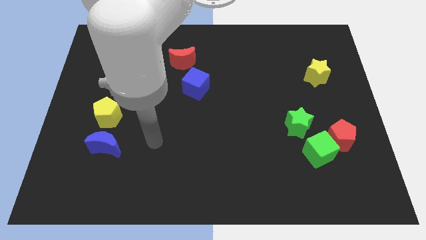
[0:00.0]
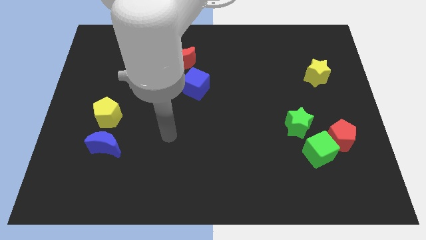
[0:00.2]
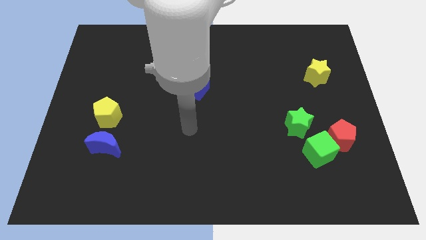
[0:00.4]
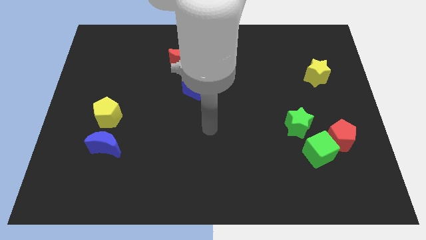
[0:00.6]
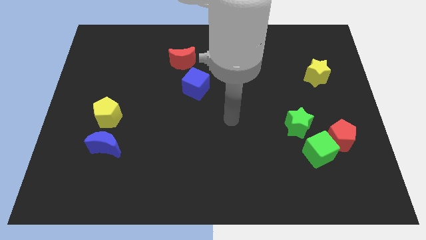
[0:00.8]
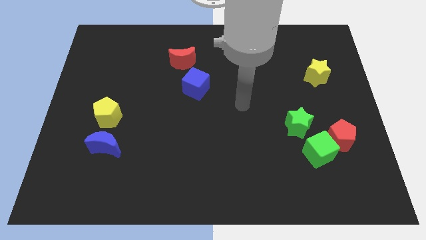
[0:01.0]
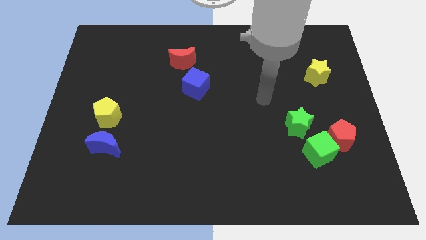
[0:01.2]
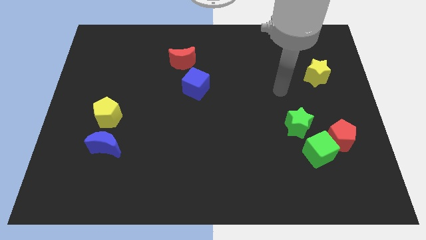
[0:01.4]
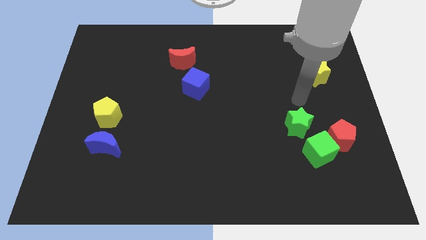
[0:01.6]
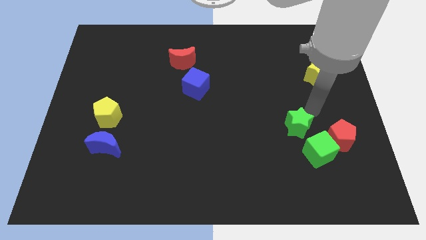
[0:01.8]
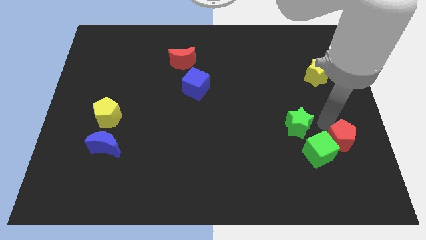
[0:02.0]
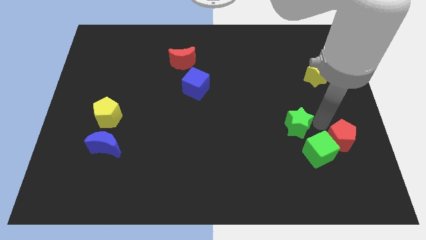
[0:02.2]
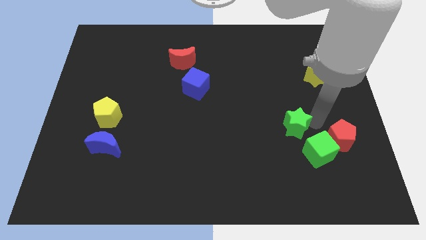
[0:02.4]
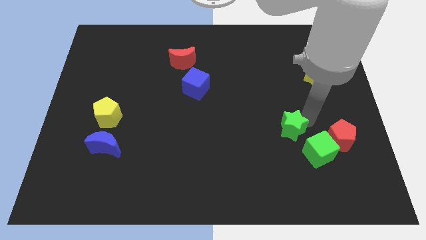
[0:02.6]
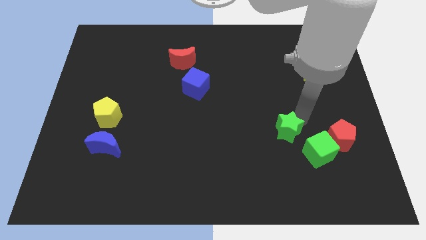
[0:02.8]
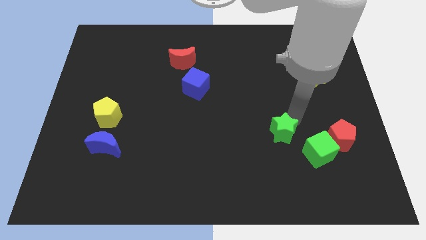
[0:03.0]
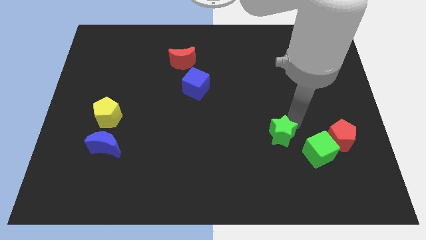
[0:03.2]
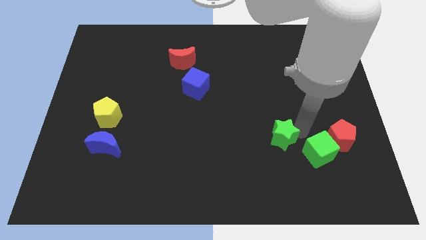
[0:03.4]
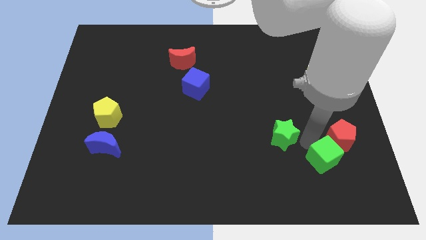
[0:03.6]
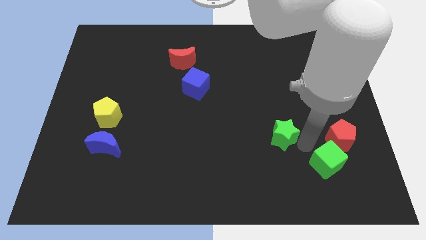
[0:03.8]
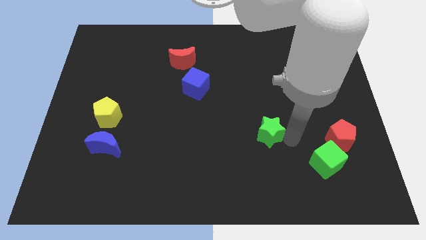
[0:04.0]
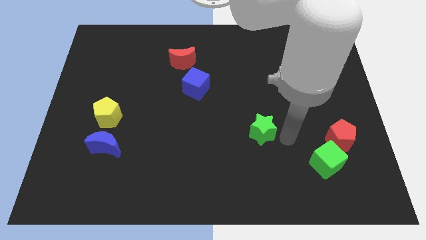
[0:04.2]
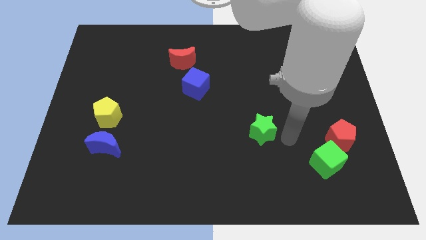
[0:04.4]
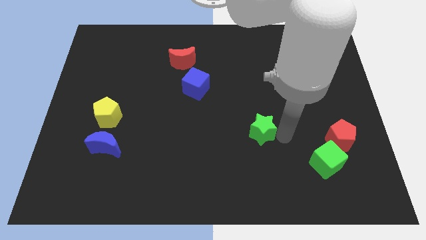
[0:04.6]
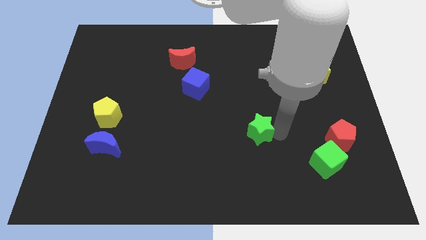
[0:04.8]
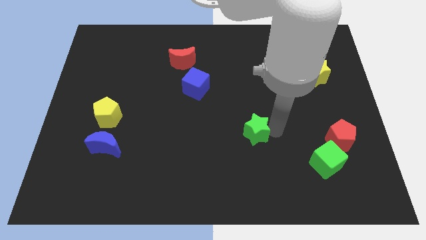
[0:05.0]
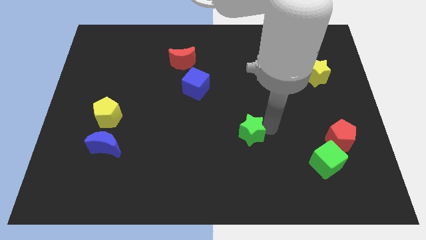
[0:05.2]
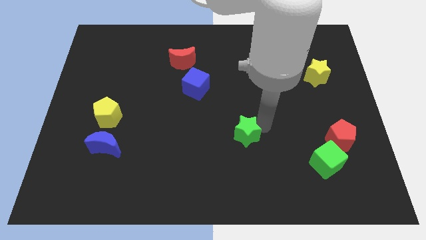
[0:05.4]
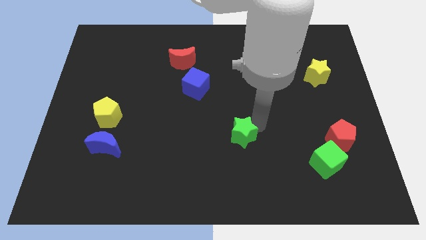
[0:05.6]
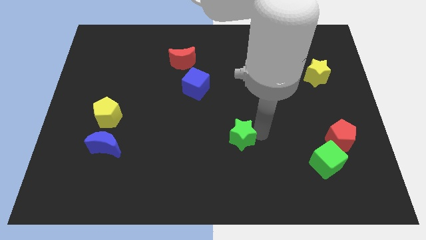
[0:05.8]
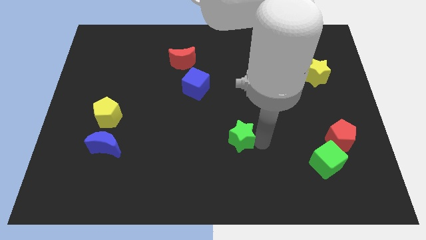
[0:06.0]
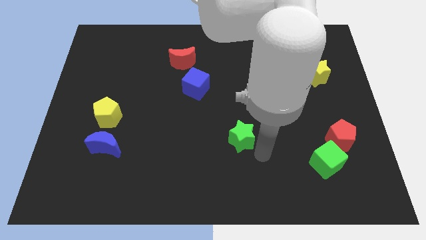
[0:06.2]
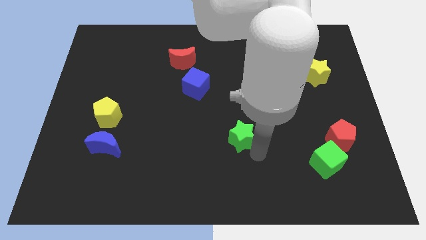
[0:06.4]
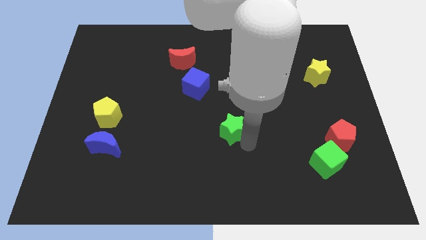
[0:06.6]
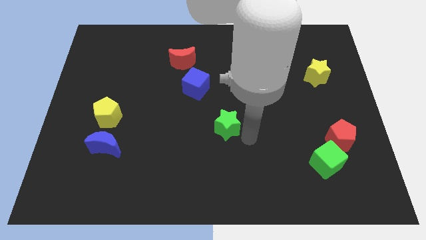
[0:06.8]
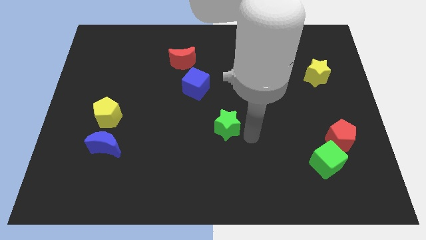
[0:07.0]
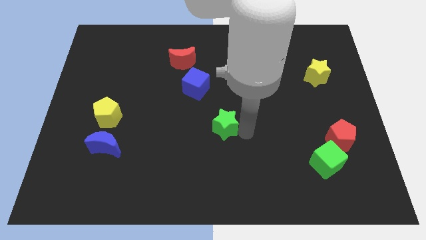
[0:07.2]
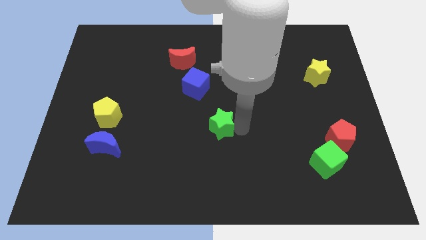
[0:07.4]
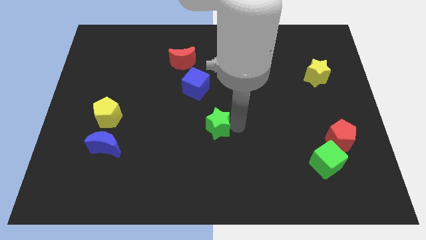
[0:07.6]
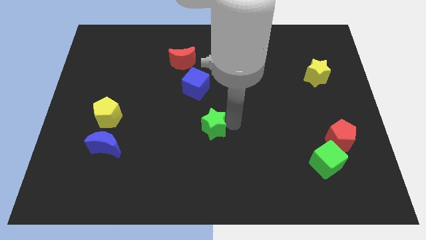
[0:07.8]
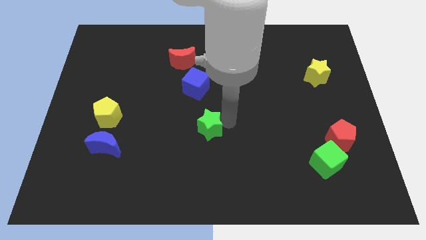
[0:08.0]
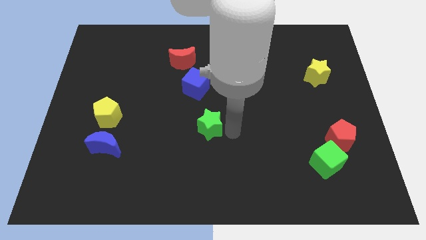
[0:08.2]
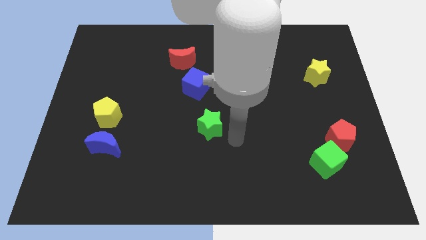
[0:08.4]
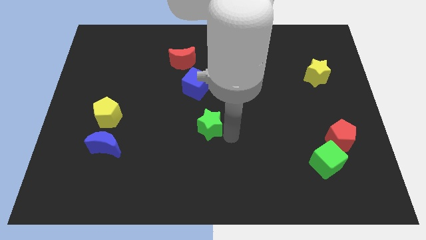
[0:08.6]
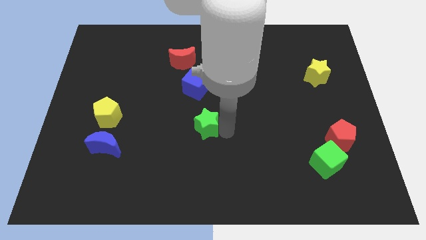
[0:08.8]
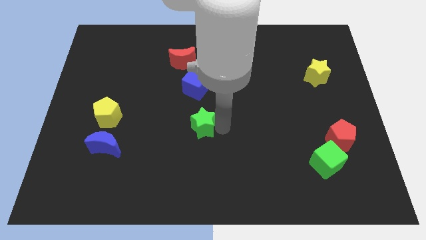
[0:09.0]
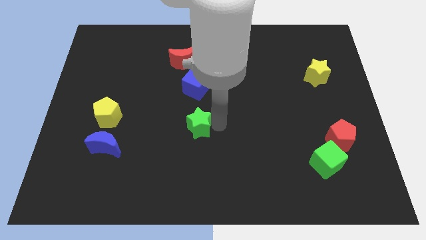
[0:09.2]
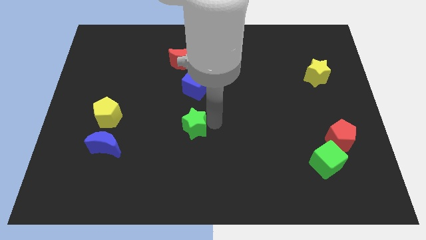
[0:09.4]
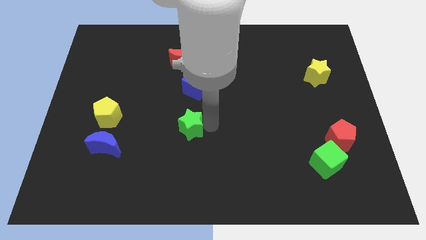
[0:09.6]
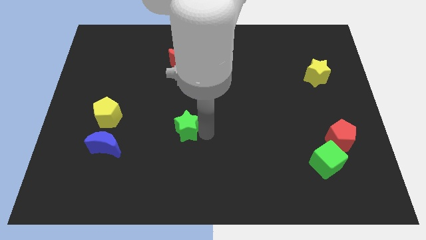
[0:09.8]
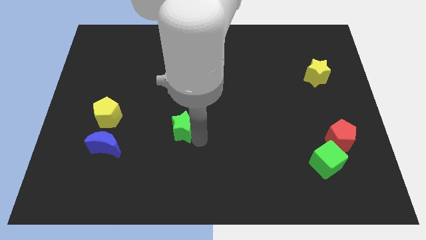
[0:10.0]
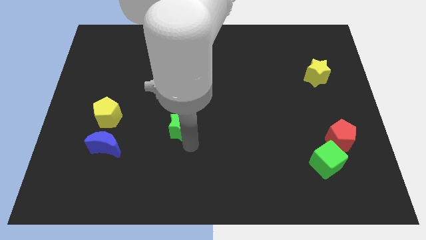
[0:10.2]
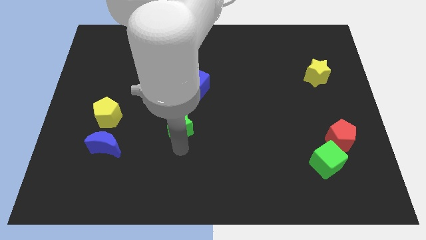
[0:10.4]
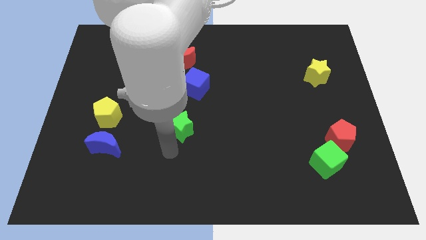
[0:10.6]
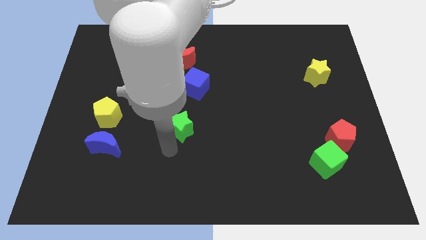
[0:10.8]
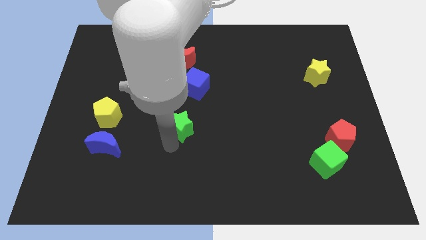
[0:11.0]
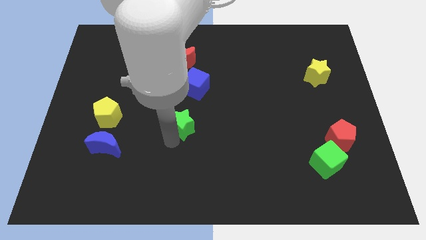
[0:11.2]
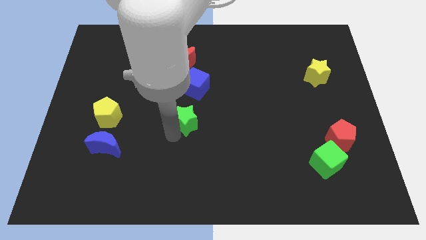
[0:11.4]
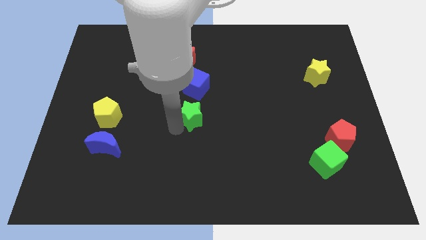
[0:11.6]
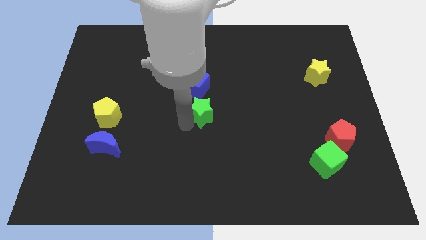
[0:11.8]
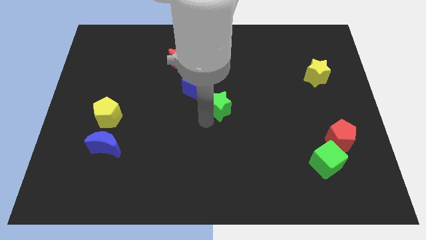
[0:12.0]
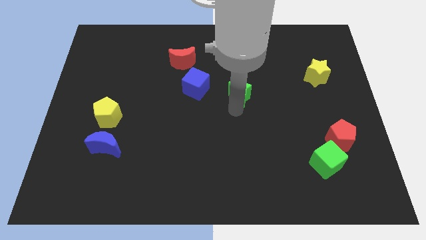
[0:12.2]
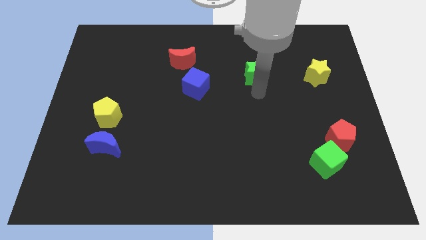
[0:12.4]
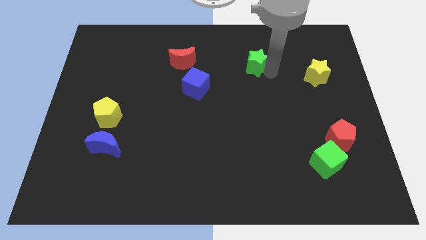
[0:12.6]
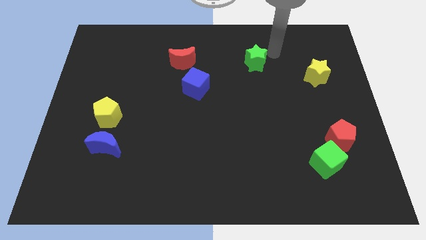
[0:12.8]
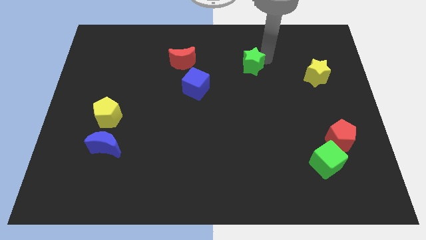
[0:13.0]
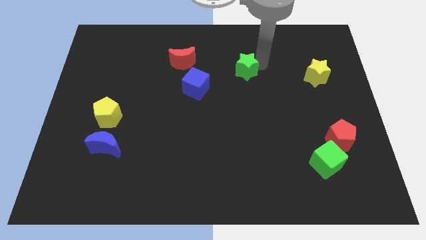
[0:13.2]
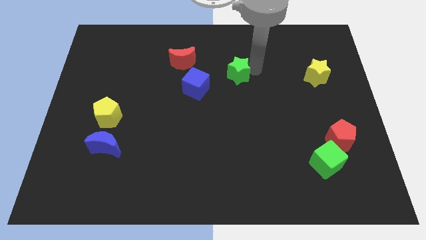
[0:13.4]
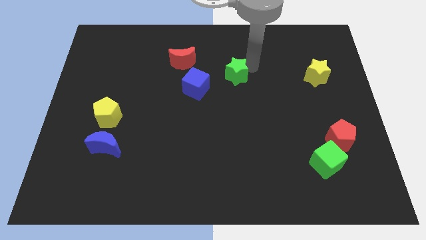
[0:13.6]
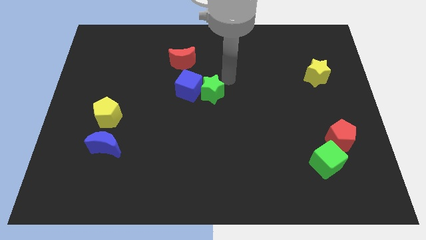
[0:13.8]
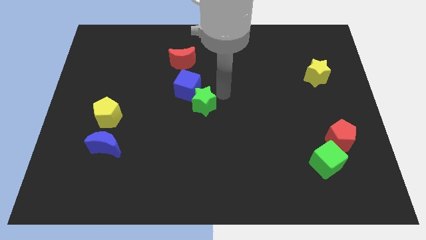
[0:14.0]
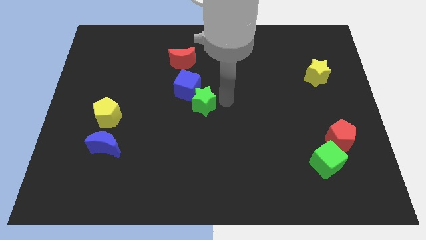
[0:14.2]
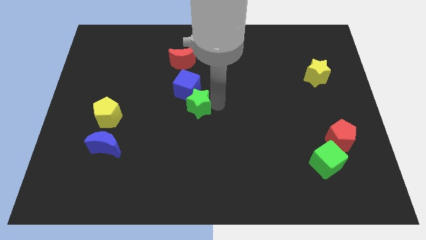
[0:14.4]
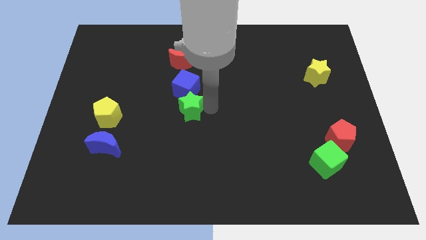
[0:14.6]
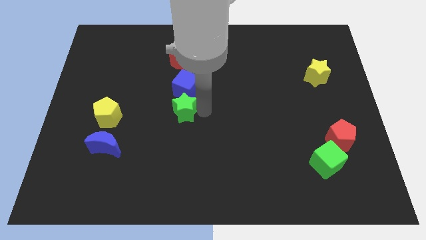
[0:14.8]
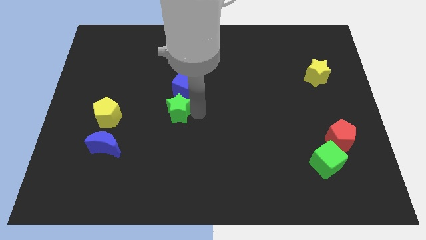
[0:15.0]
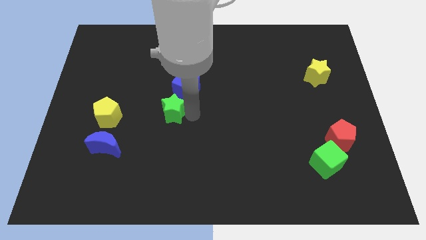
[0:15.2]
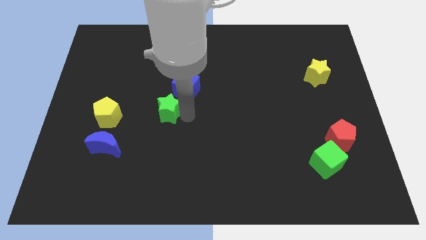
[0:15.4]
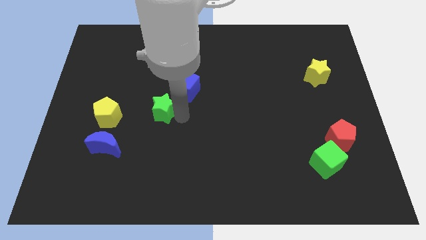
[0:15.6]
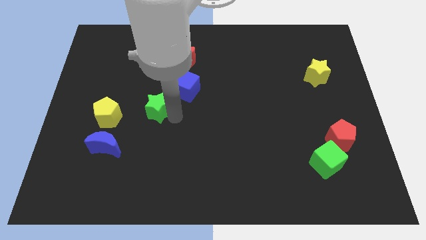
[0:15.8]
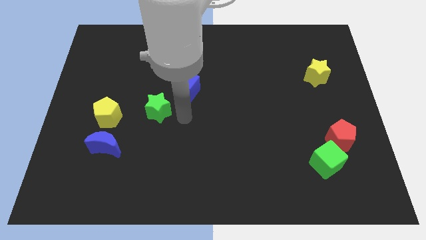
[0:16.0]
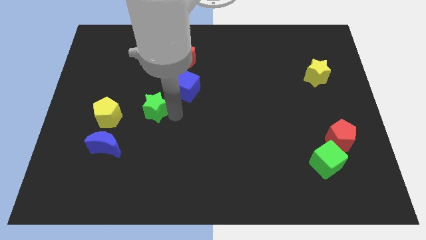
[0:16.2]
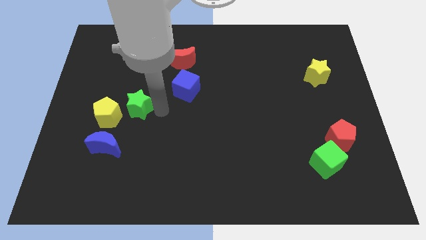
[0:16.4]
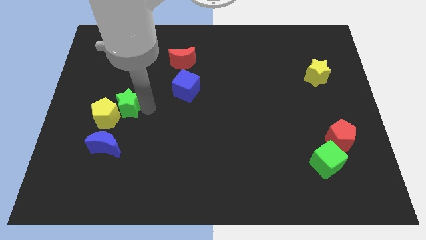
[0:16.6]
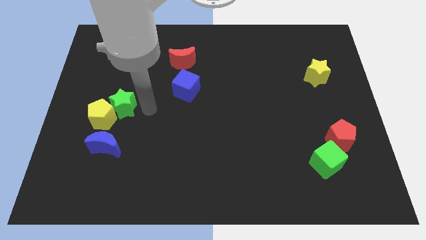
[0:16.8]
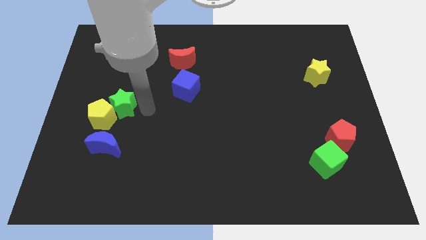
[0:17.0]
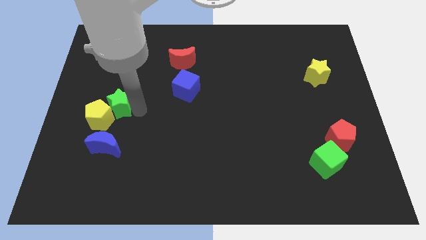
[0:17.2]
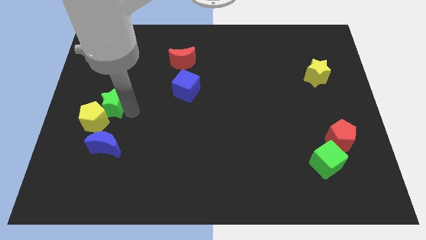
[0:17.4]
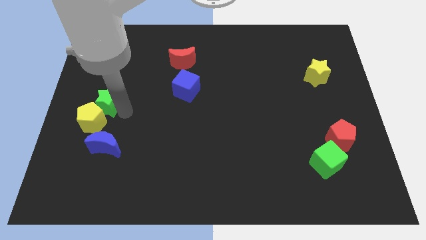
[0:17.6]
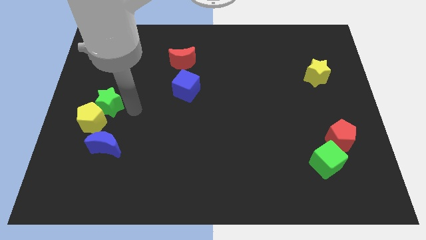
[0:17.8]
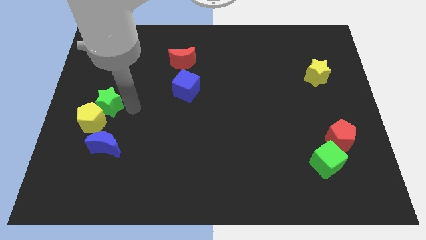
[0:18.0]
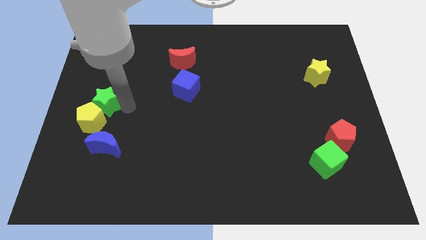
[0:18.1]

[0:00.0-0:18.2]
slide the green star to the left side of the board
